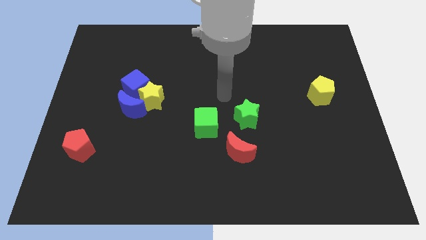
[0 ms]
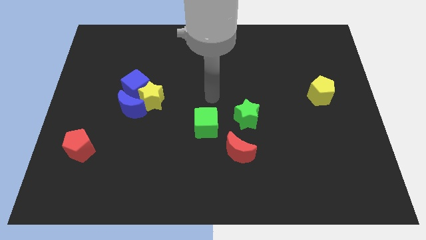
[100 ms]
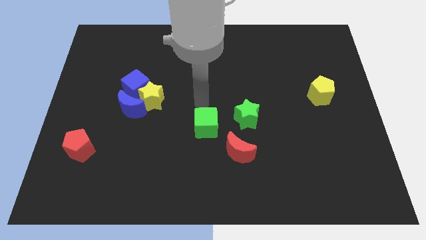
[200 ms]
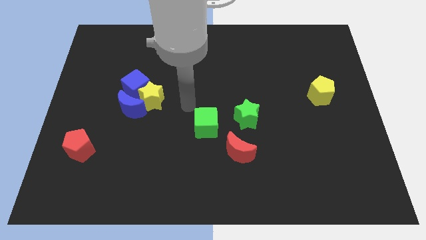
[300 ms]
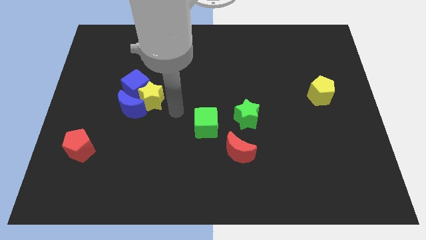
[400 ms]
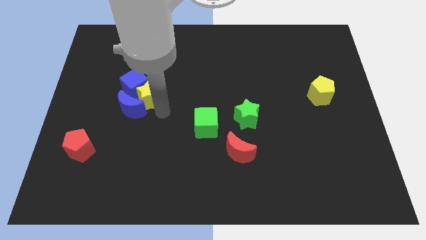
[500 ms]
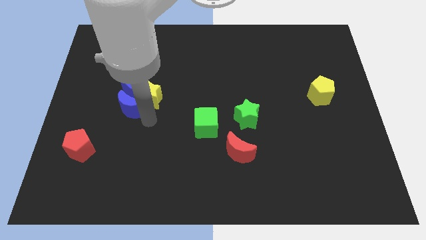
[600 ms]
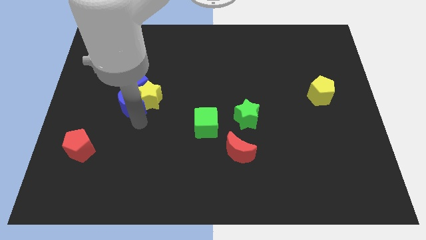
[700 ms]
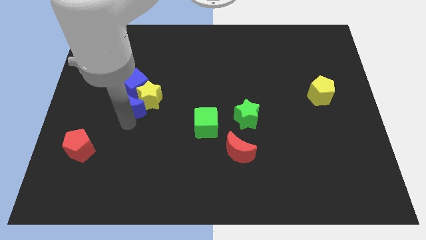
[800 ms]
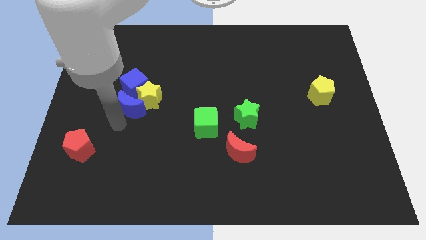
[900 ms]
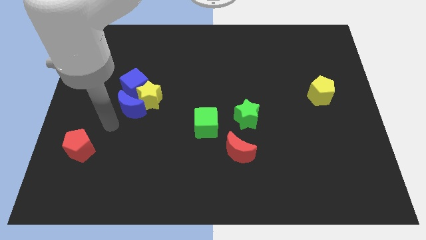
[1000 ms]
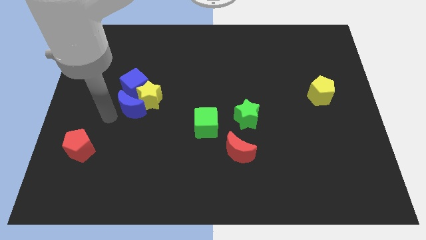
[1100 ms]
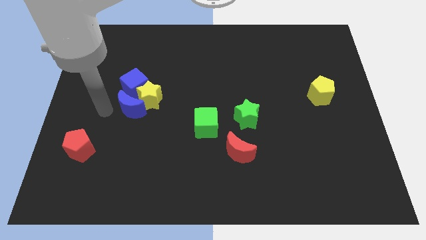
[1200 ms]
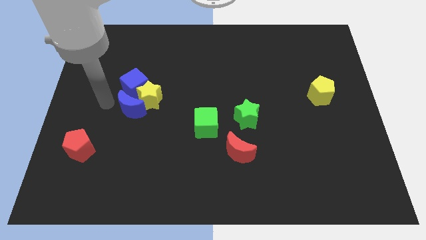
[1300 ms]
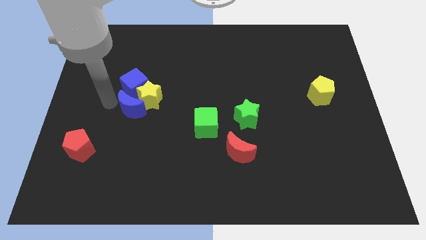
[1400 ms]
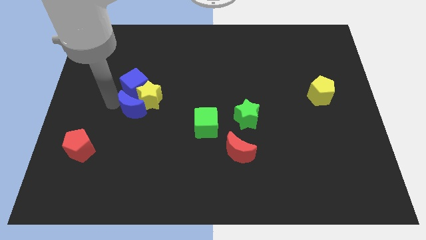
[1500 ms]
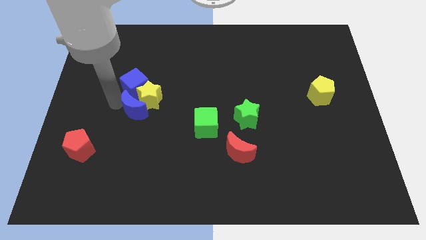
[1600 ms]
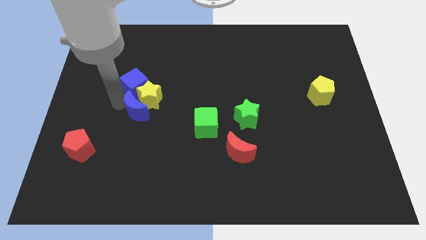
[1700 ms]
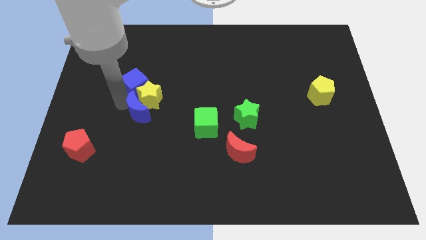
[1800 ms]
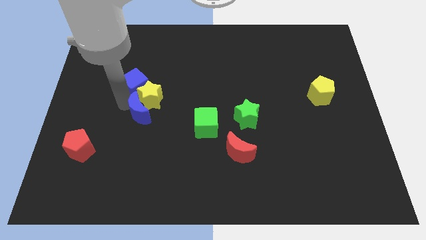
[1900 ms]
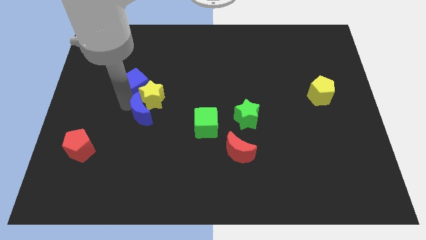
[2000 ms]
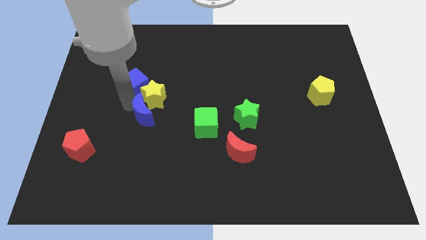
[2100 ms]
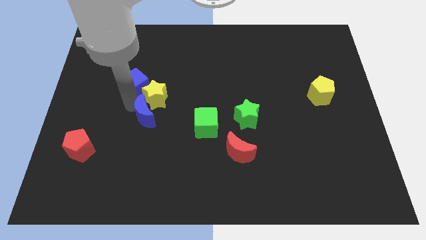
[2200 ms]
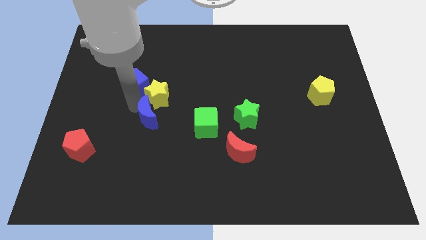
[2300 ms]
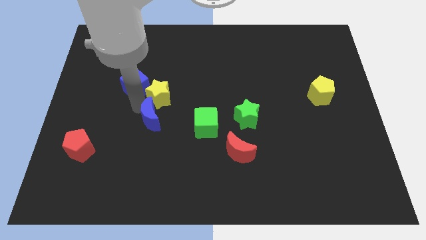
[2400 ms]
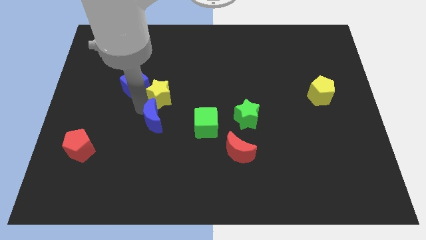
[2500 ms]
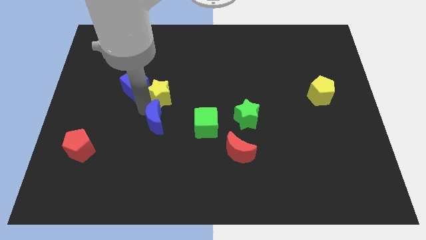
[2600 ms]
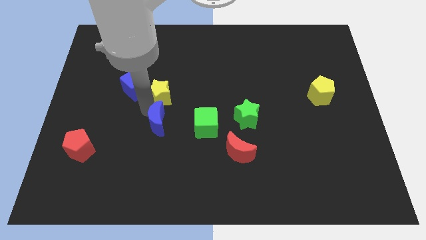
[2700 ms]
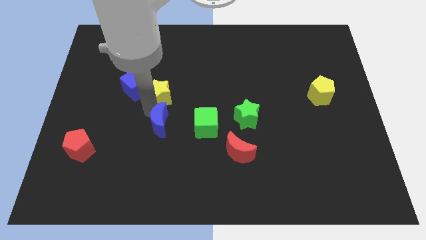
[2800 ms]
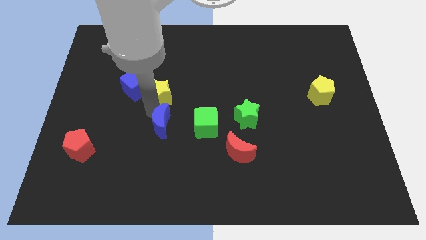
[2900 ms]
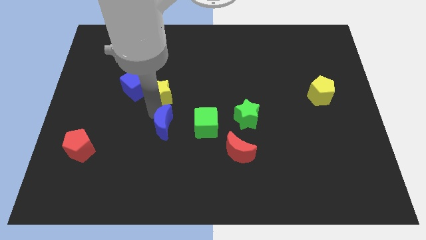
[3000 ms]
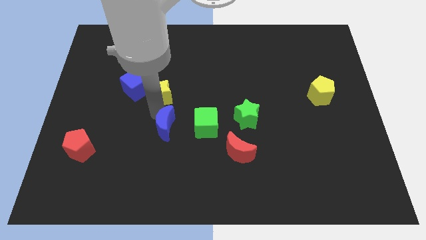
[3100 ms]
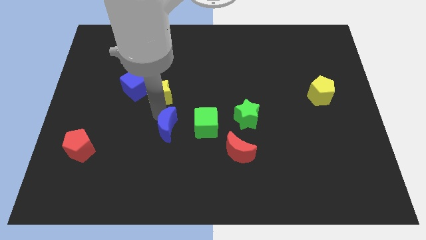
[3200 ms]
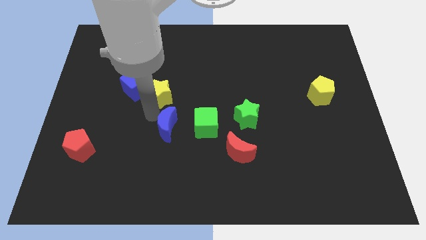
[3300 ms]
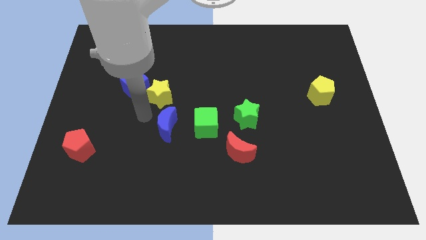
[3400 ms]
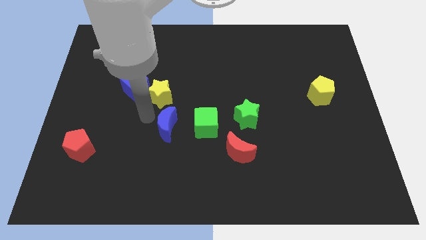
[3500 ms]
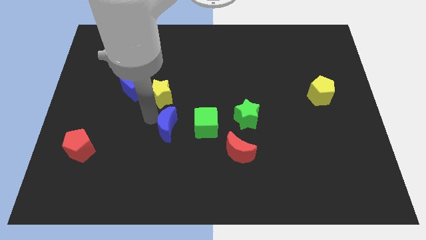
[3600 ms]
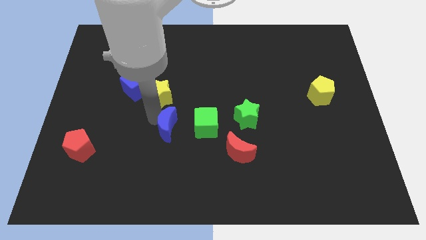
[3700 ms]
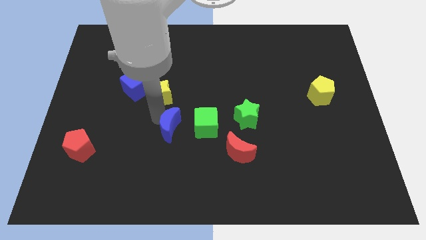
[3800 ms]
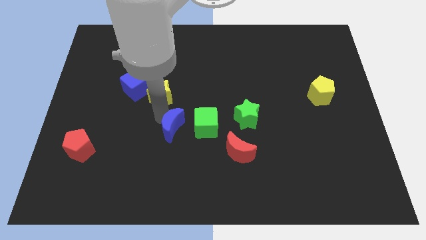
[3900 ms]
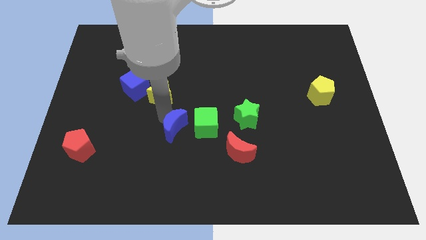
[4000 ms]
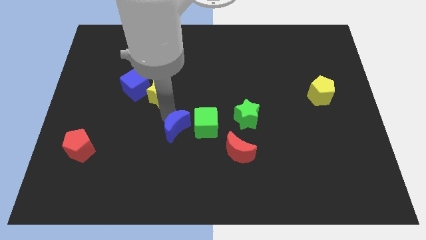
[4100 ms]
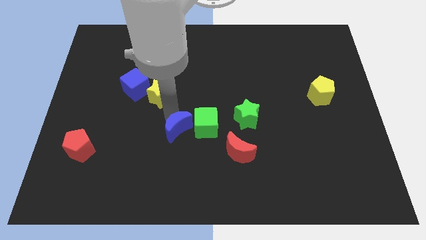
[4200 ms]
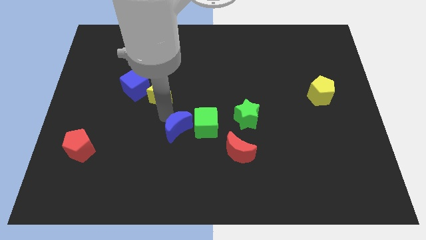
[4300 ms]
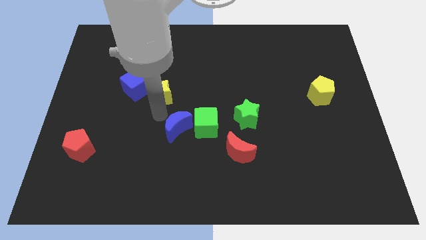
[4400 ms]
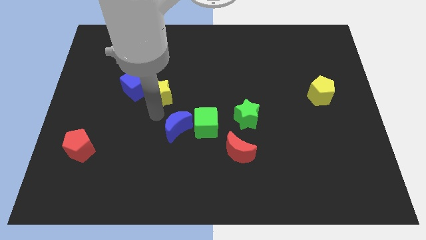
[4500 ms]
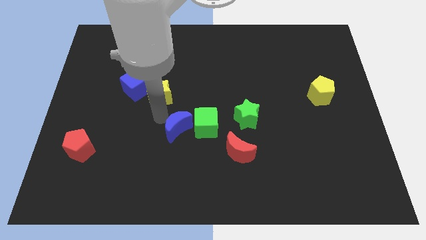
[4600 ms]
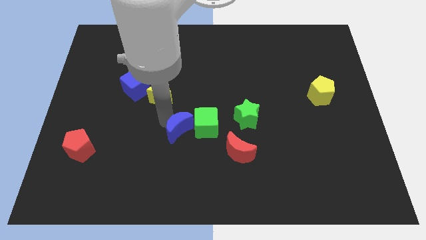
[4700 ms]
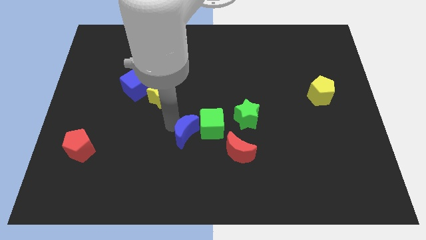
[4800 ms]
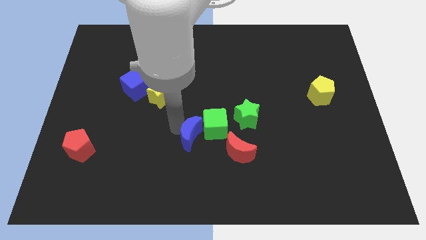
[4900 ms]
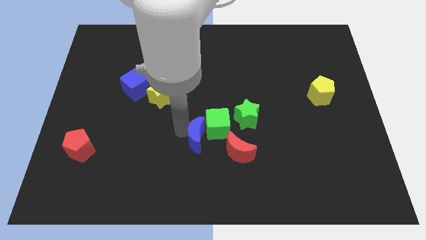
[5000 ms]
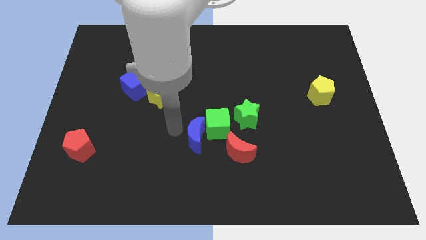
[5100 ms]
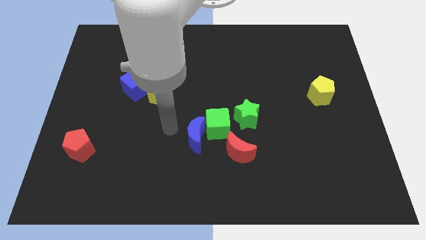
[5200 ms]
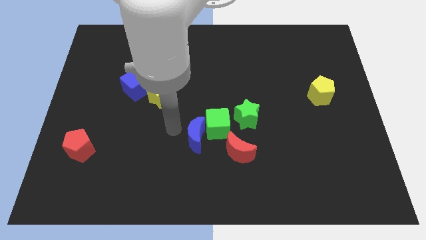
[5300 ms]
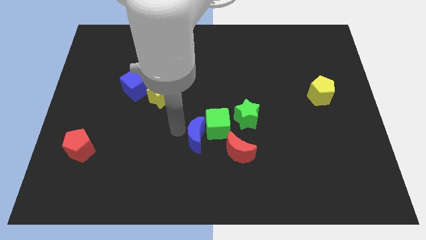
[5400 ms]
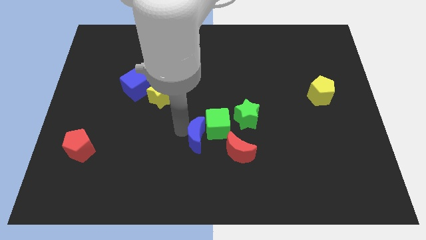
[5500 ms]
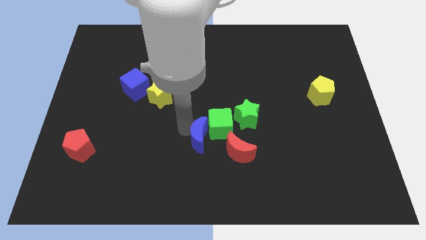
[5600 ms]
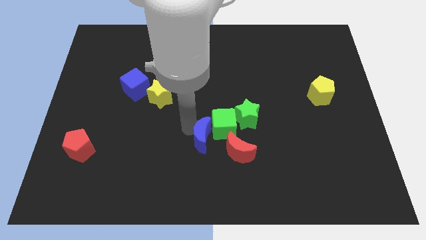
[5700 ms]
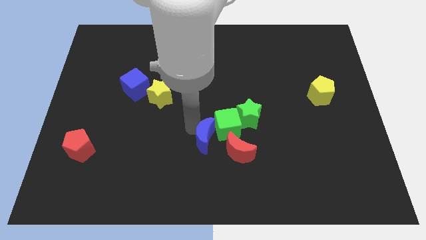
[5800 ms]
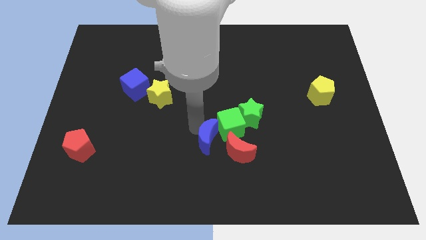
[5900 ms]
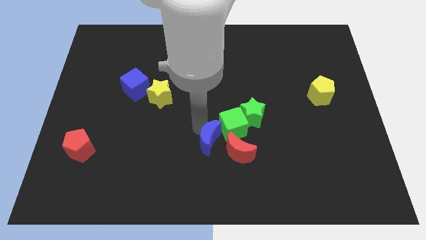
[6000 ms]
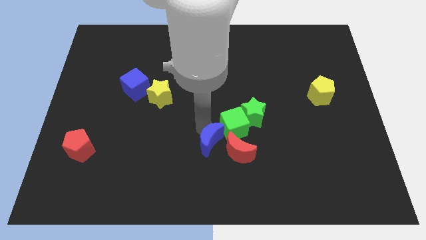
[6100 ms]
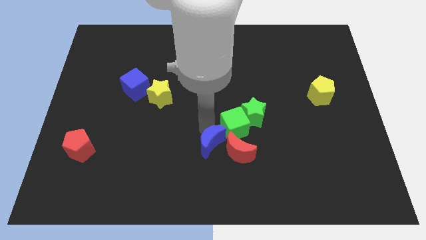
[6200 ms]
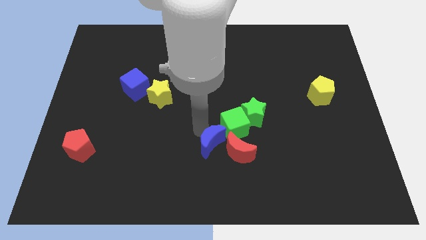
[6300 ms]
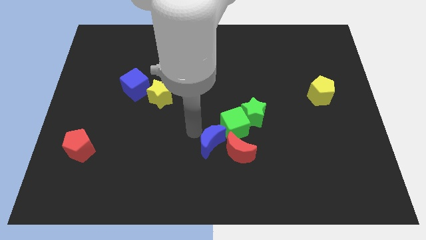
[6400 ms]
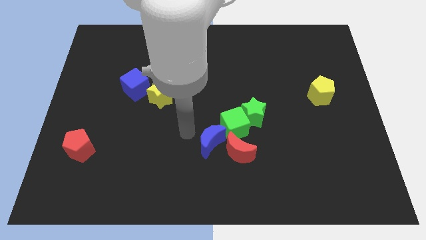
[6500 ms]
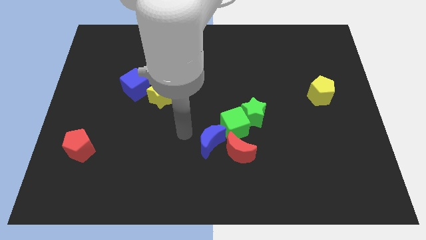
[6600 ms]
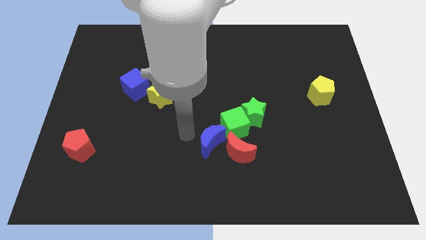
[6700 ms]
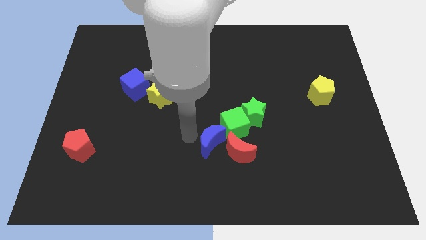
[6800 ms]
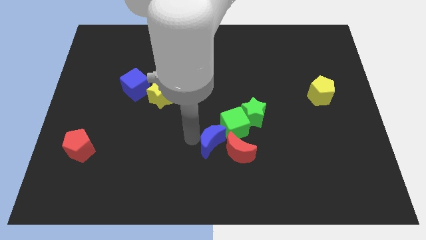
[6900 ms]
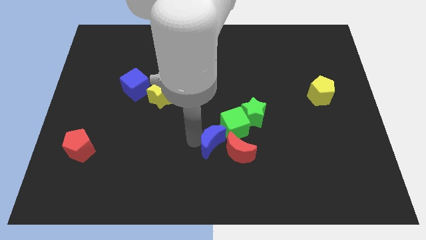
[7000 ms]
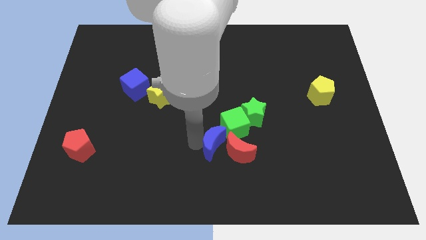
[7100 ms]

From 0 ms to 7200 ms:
push the blue moon close to the red moon

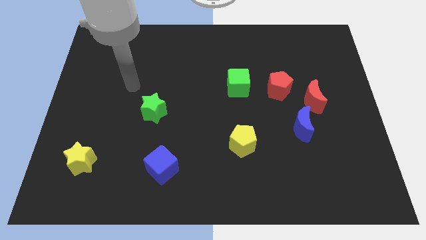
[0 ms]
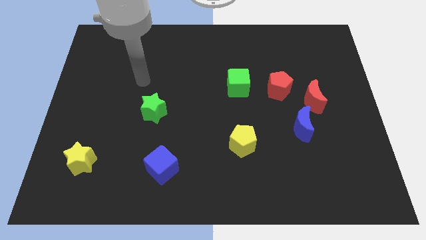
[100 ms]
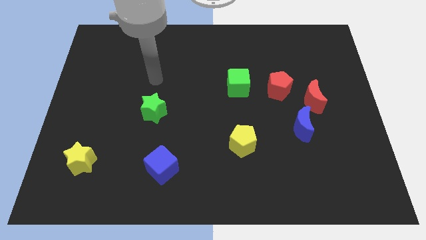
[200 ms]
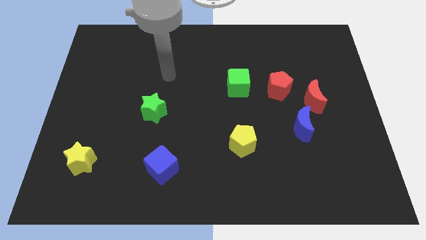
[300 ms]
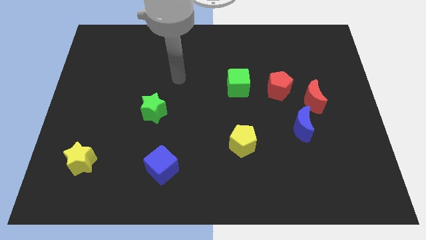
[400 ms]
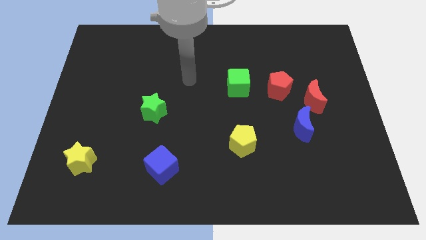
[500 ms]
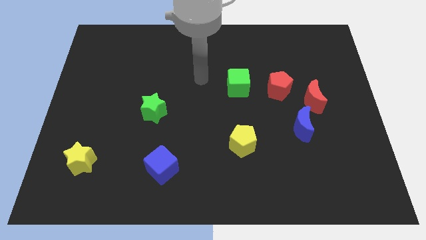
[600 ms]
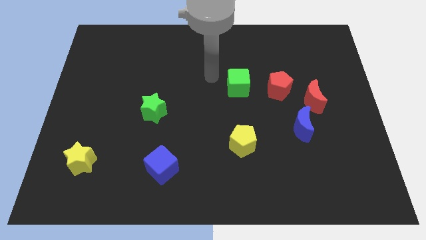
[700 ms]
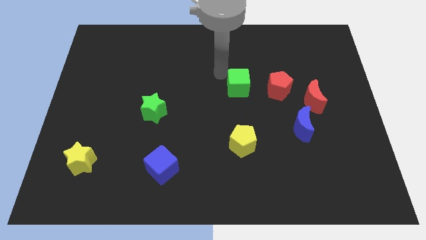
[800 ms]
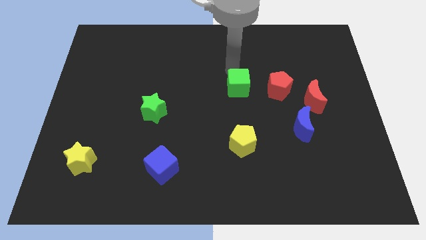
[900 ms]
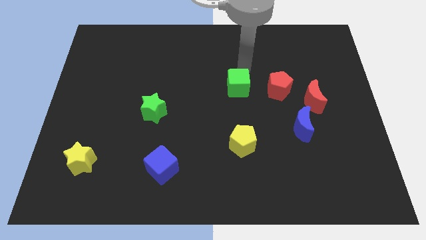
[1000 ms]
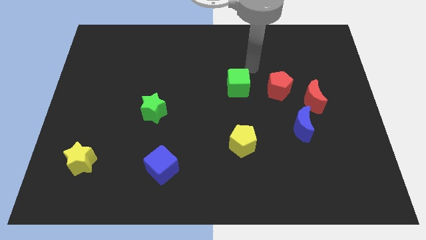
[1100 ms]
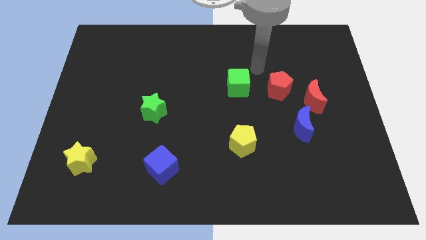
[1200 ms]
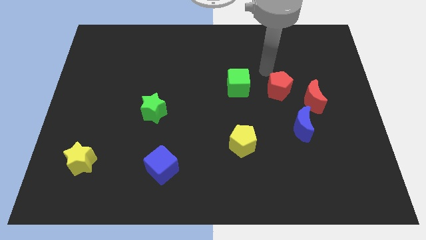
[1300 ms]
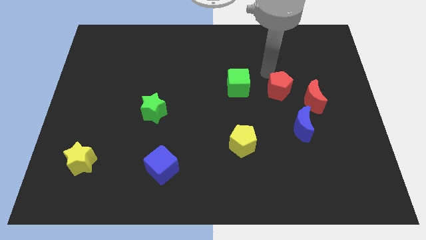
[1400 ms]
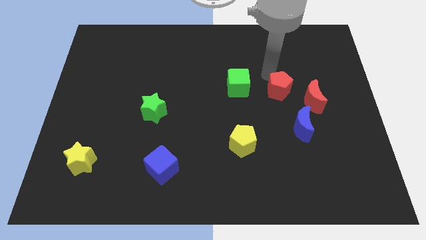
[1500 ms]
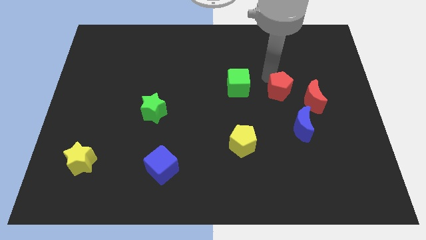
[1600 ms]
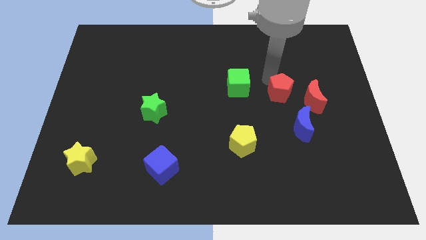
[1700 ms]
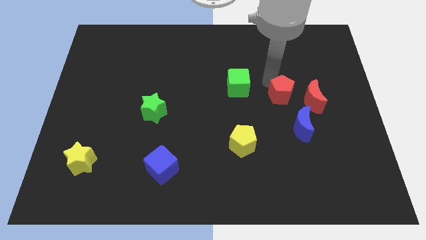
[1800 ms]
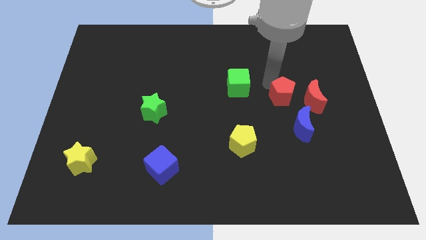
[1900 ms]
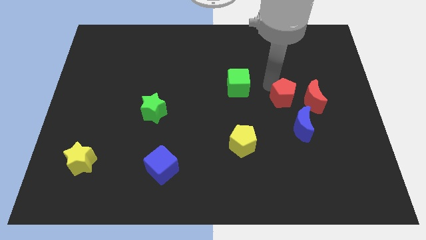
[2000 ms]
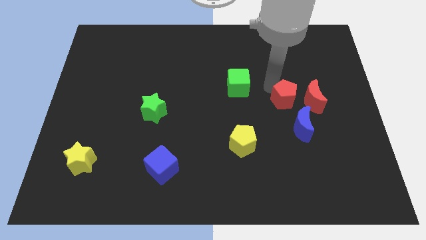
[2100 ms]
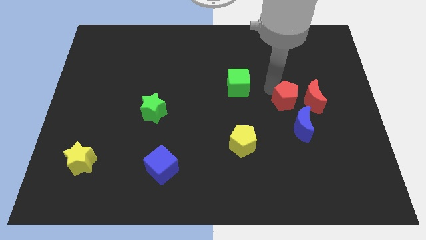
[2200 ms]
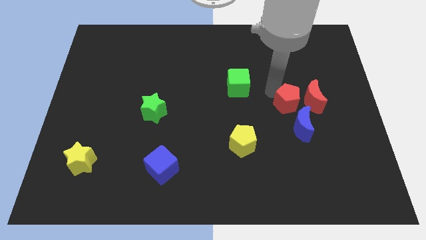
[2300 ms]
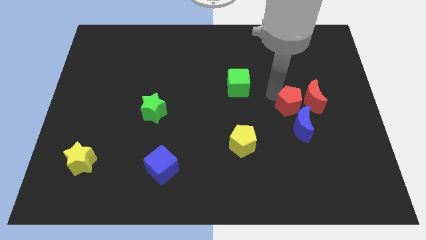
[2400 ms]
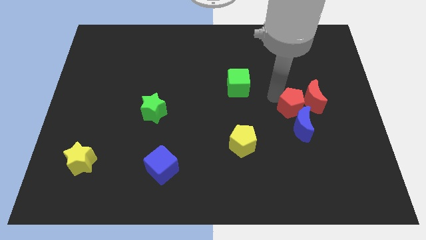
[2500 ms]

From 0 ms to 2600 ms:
move the red pentagon towards the blue moon
